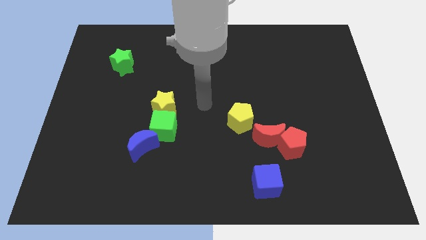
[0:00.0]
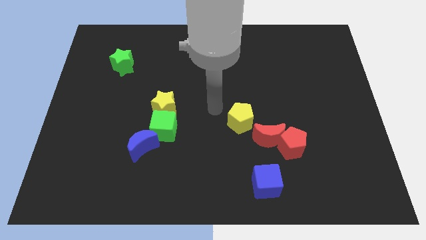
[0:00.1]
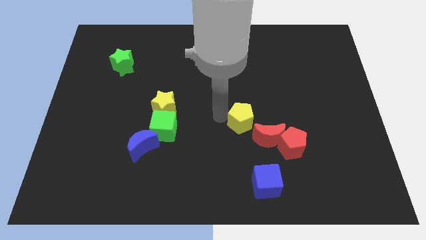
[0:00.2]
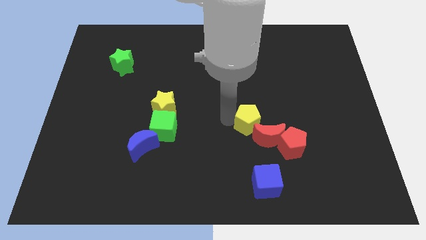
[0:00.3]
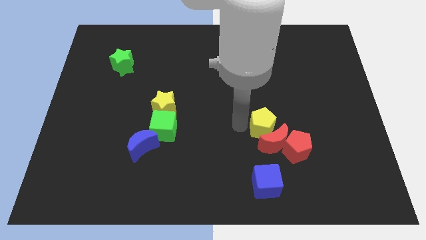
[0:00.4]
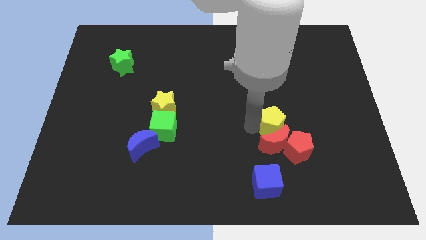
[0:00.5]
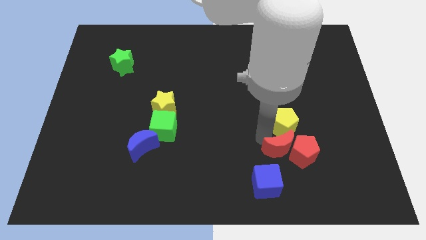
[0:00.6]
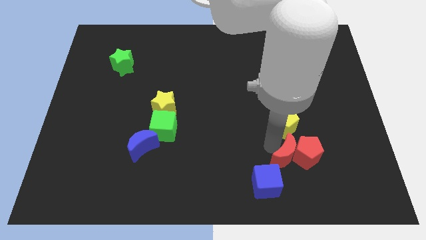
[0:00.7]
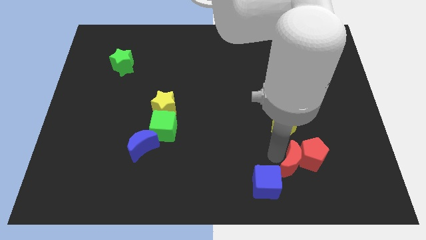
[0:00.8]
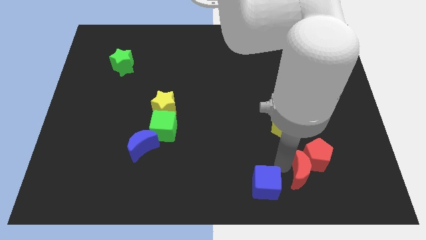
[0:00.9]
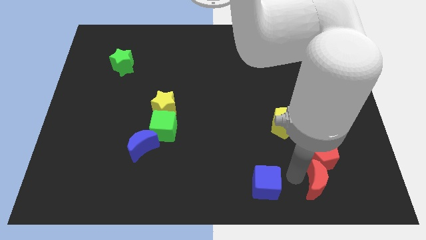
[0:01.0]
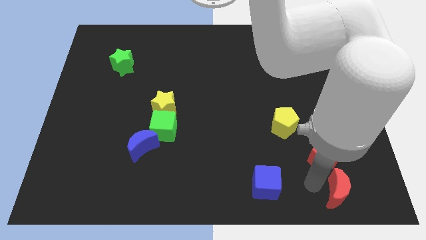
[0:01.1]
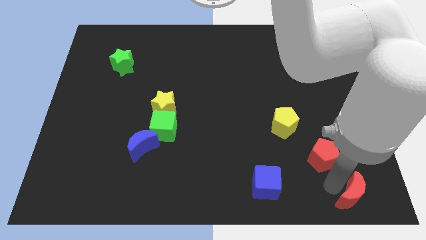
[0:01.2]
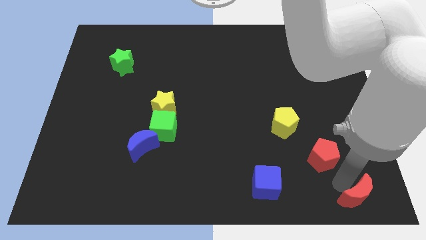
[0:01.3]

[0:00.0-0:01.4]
move the red pentagon away from the red moon

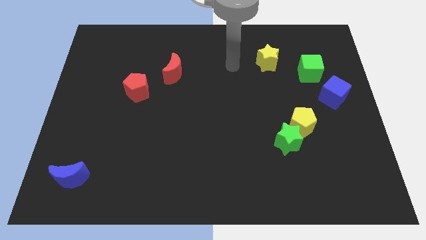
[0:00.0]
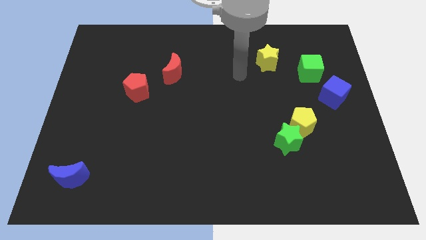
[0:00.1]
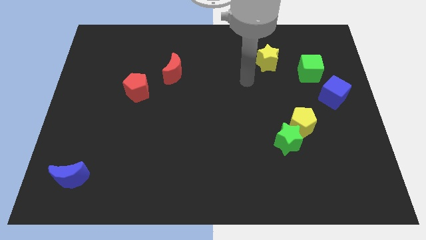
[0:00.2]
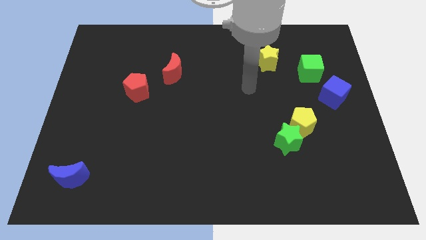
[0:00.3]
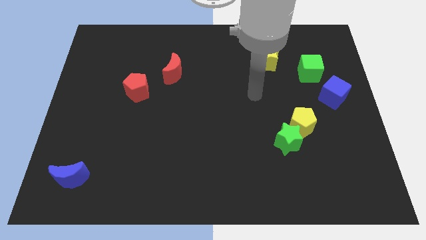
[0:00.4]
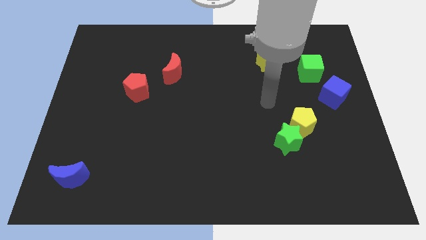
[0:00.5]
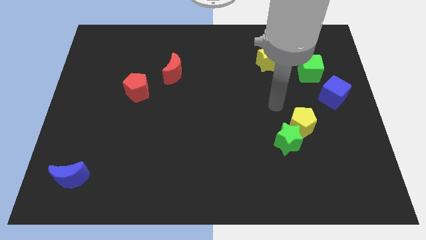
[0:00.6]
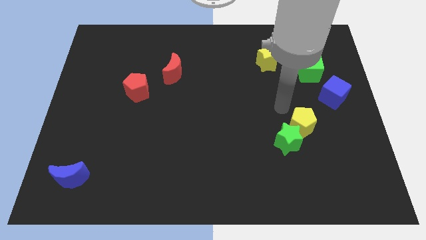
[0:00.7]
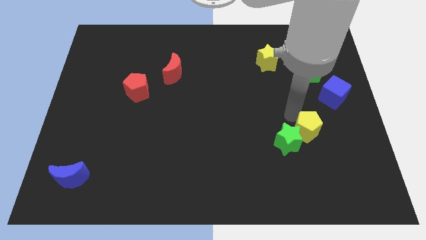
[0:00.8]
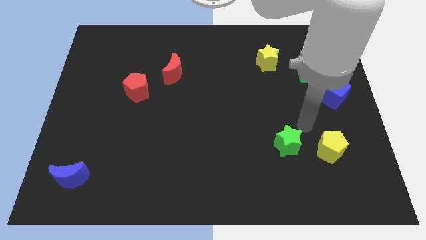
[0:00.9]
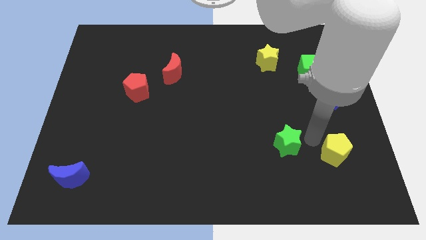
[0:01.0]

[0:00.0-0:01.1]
move the green star away from the yellow pentagon

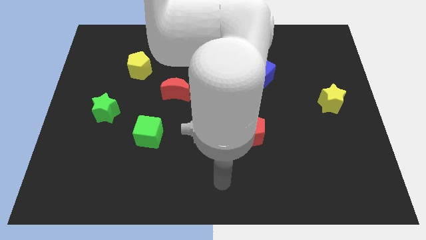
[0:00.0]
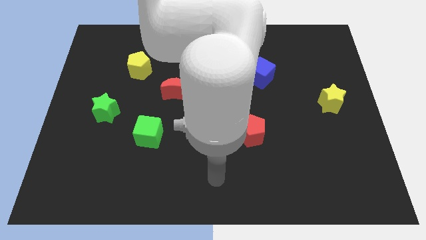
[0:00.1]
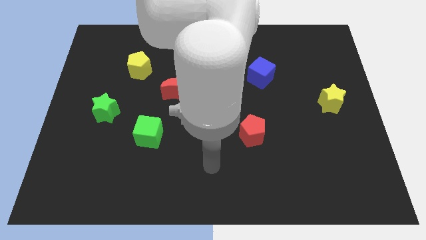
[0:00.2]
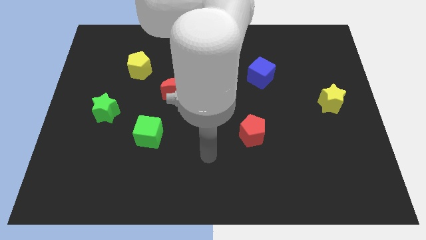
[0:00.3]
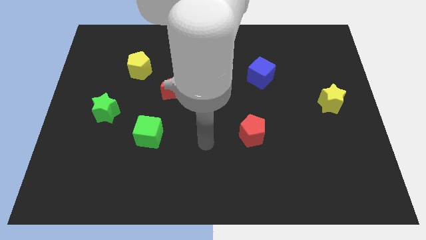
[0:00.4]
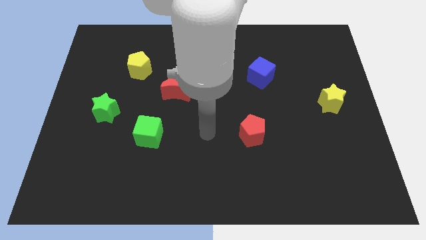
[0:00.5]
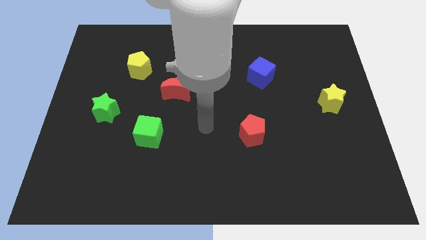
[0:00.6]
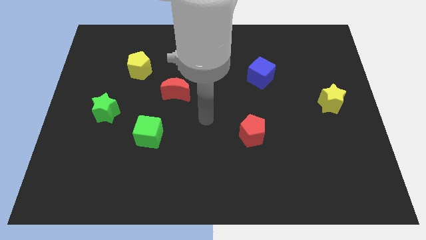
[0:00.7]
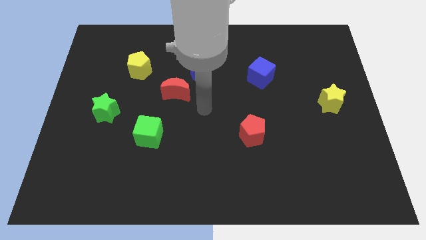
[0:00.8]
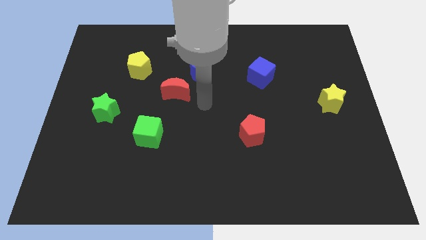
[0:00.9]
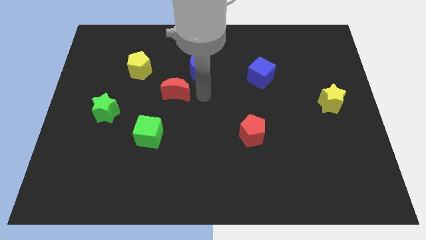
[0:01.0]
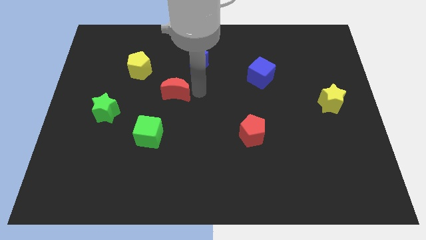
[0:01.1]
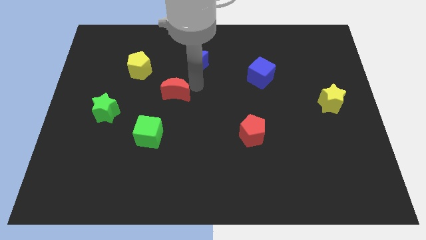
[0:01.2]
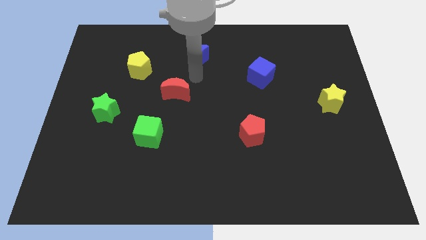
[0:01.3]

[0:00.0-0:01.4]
move the red moon away from the blue moon

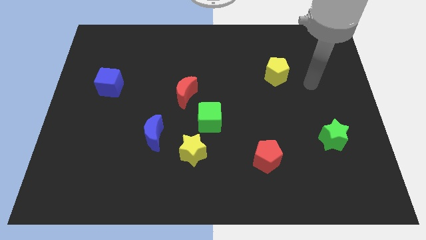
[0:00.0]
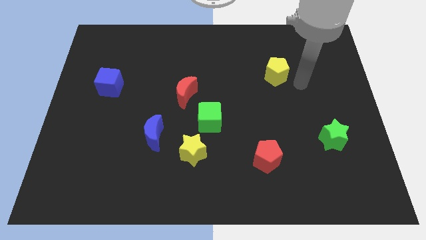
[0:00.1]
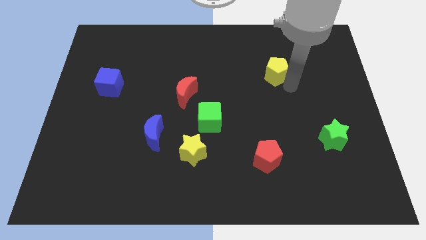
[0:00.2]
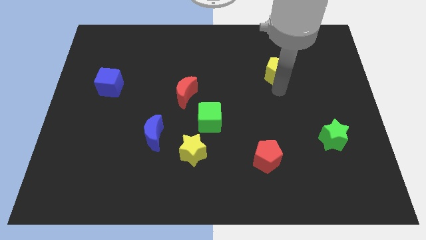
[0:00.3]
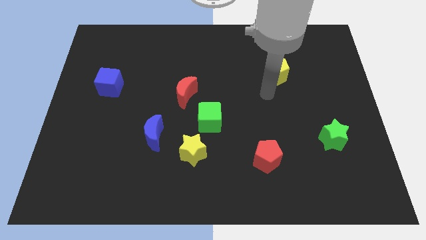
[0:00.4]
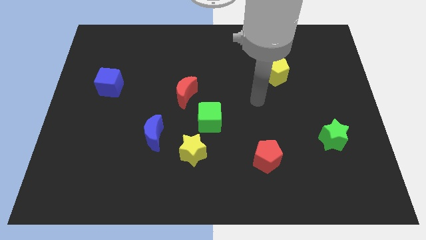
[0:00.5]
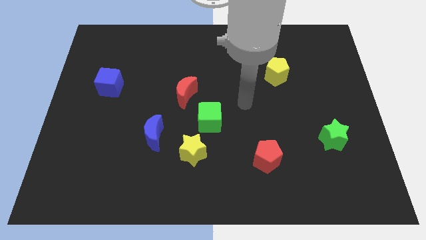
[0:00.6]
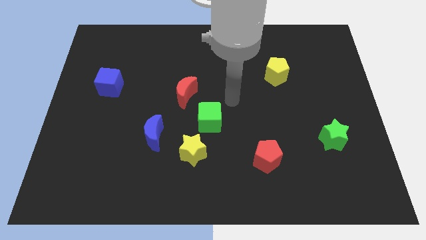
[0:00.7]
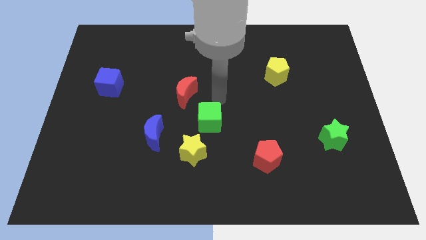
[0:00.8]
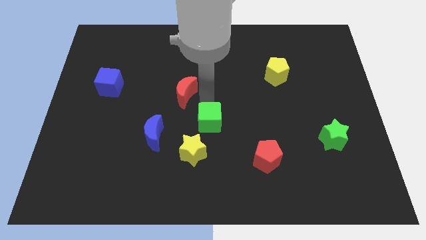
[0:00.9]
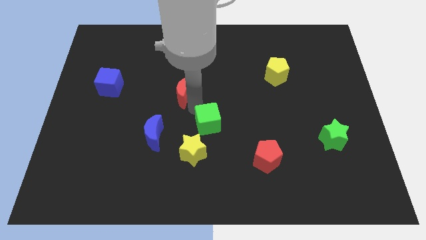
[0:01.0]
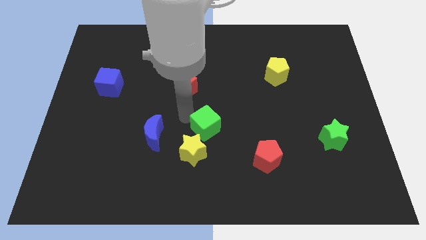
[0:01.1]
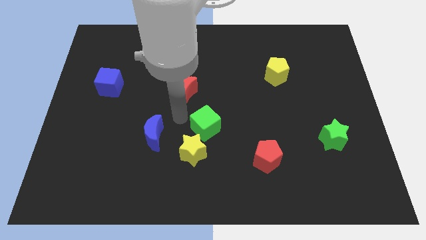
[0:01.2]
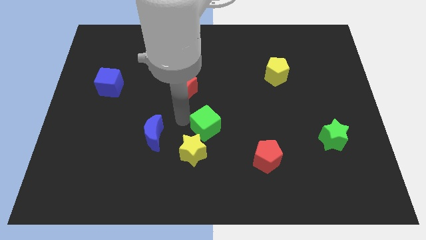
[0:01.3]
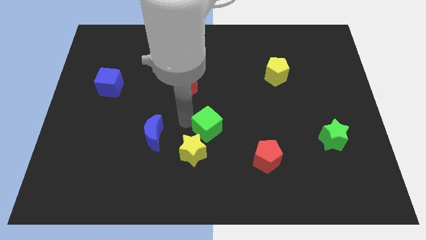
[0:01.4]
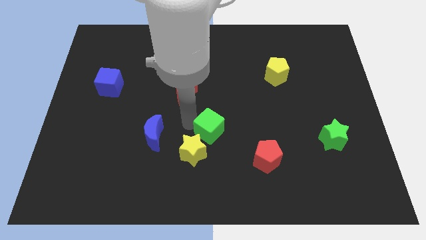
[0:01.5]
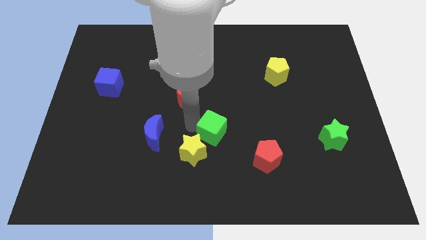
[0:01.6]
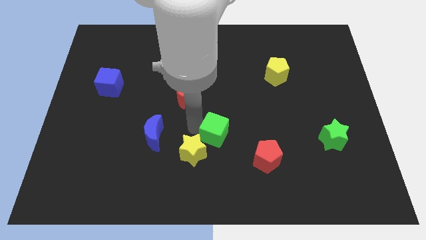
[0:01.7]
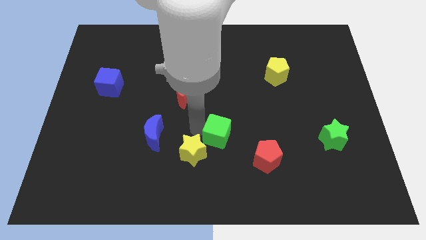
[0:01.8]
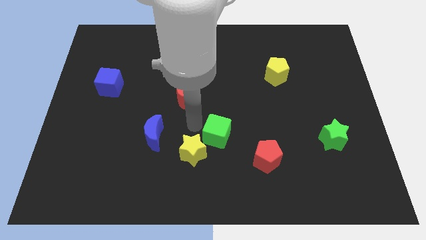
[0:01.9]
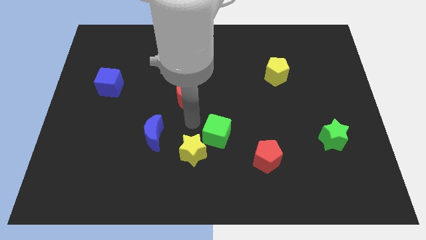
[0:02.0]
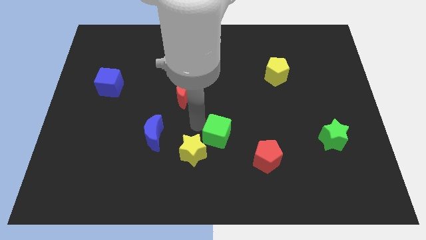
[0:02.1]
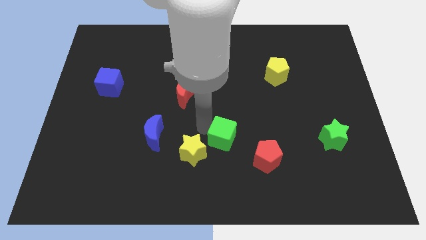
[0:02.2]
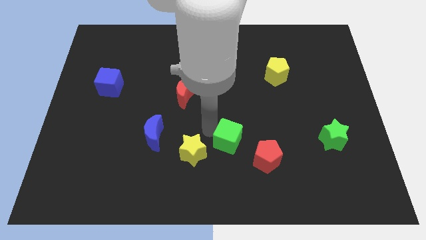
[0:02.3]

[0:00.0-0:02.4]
move the green cube away from the yellow star and red moon

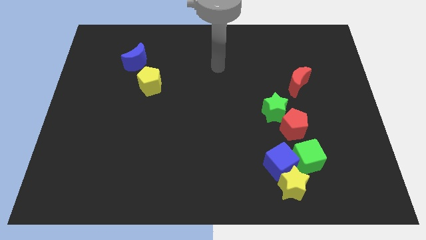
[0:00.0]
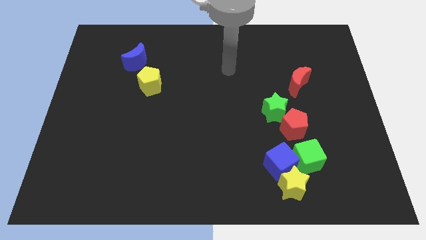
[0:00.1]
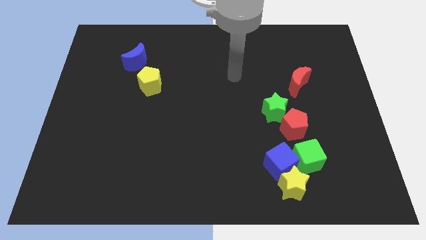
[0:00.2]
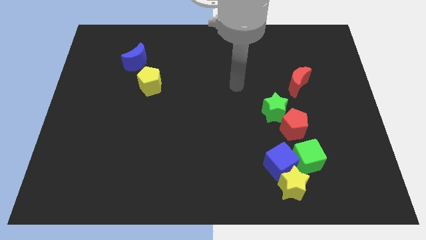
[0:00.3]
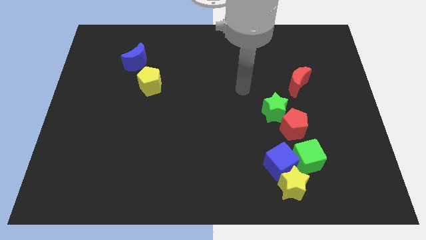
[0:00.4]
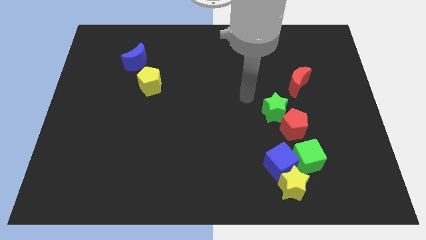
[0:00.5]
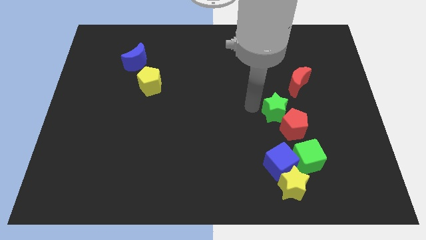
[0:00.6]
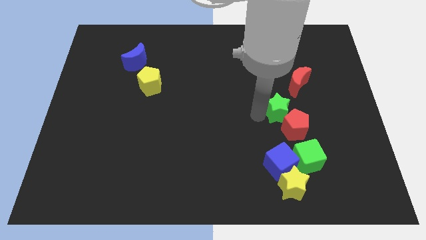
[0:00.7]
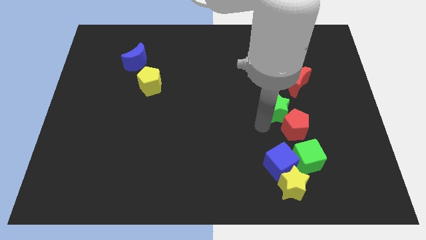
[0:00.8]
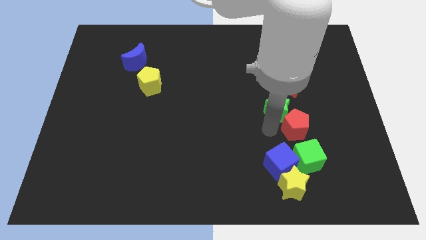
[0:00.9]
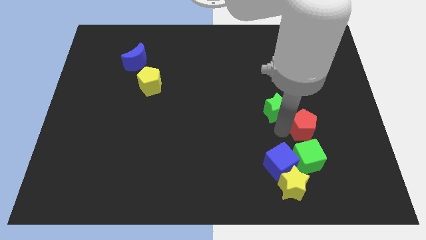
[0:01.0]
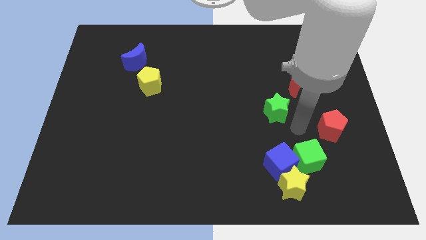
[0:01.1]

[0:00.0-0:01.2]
pull the green star apart from the red pentagon

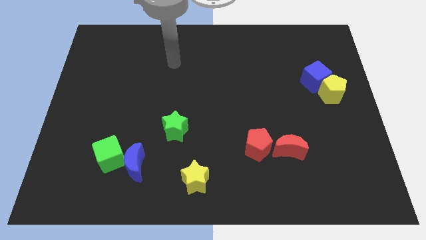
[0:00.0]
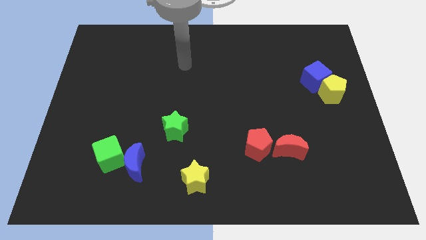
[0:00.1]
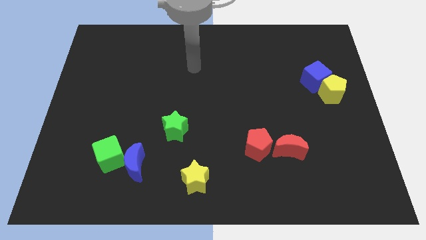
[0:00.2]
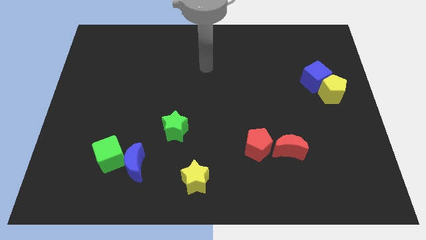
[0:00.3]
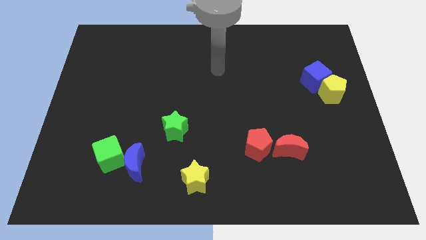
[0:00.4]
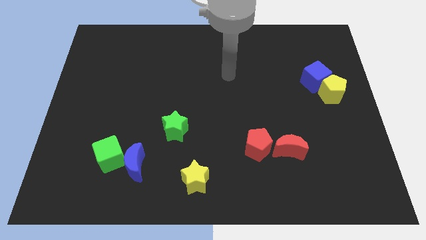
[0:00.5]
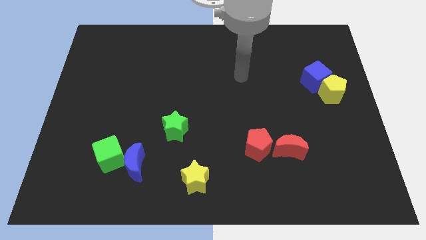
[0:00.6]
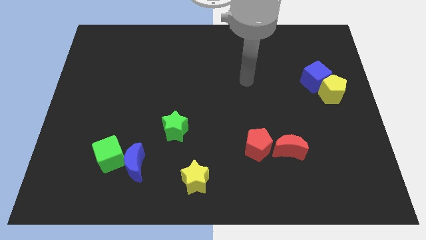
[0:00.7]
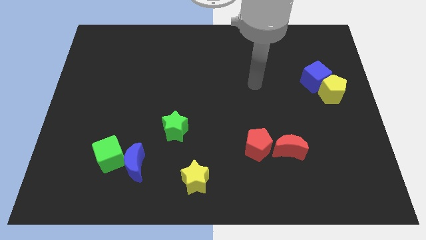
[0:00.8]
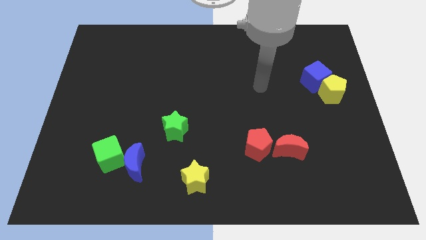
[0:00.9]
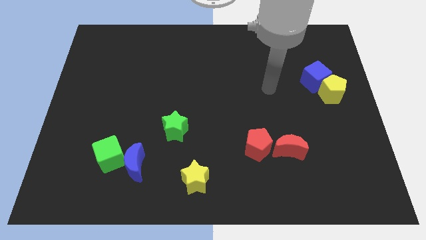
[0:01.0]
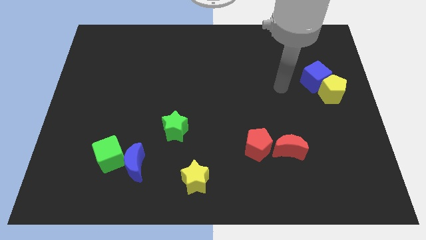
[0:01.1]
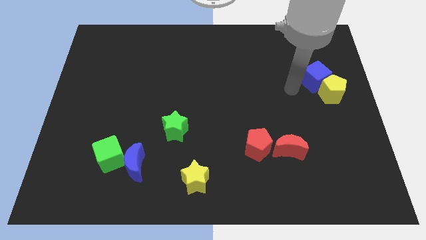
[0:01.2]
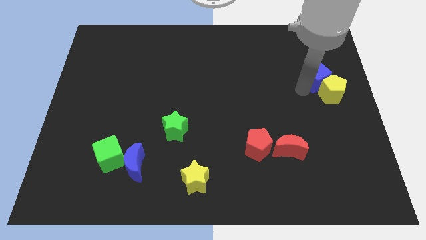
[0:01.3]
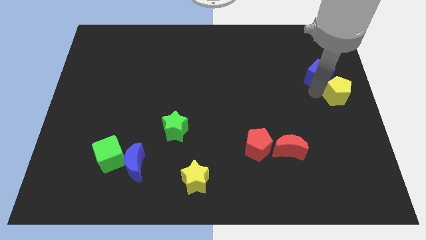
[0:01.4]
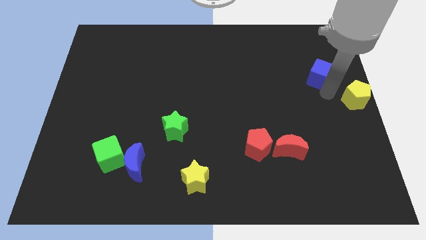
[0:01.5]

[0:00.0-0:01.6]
move the blue cube away from the yellow pentagon

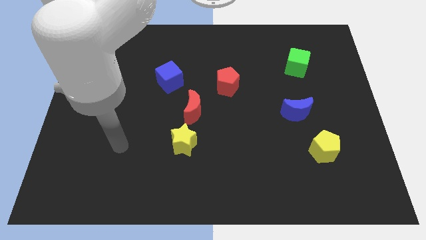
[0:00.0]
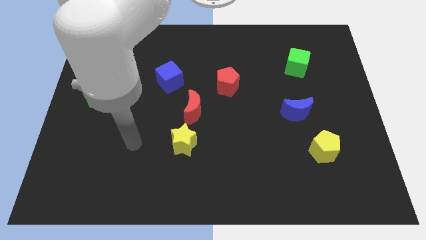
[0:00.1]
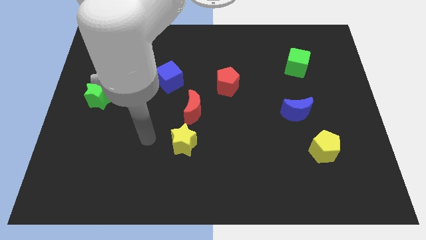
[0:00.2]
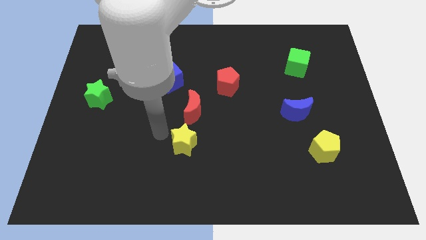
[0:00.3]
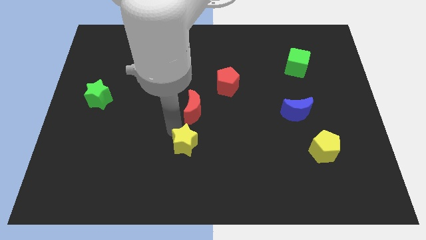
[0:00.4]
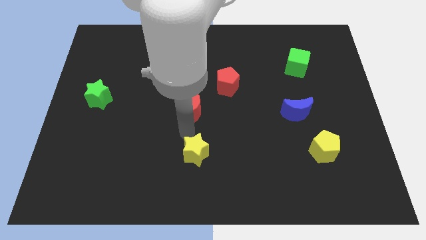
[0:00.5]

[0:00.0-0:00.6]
separate the red moon from the yellow star
